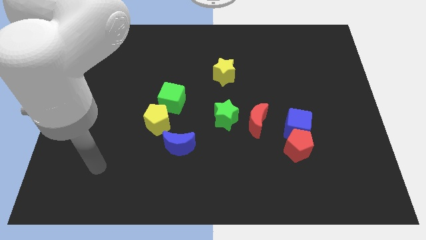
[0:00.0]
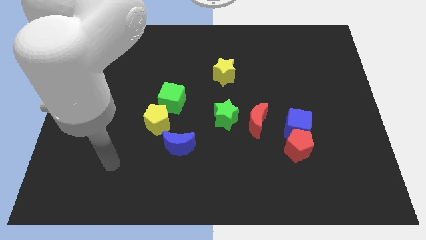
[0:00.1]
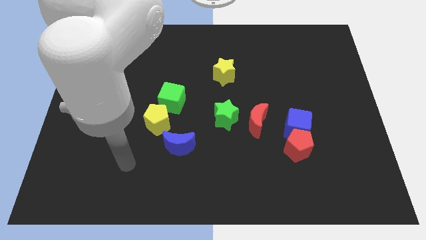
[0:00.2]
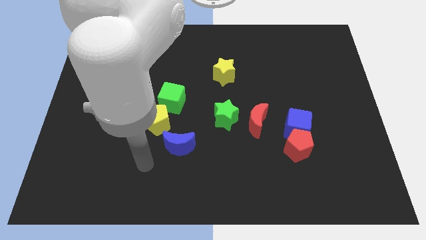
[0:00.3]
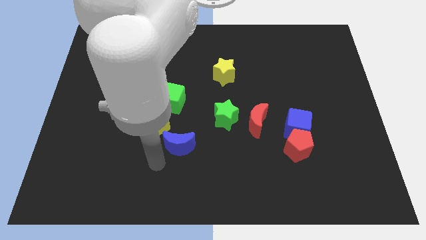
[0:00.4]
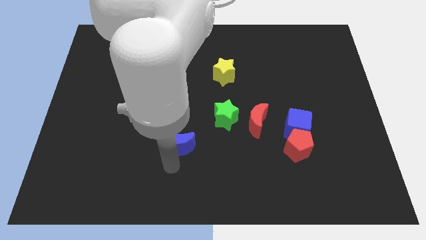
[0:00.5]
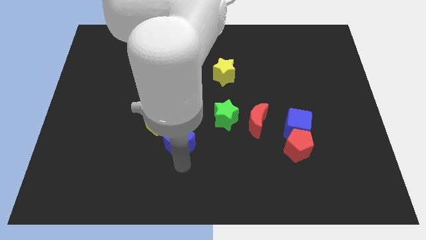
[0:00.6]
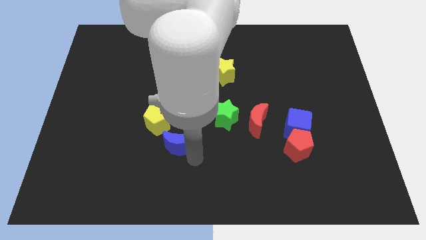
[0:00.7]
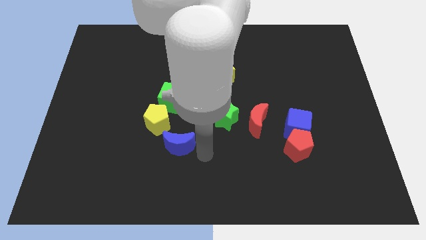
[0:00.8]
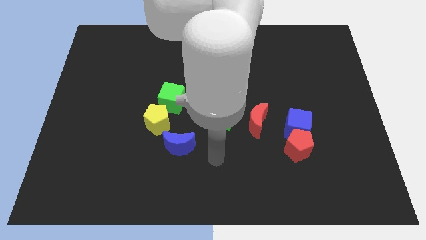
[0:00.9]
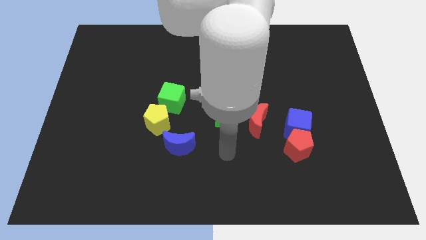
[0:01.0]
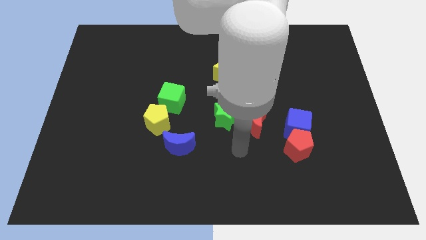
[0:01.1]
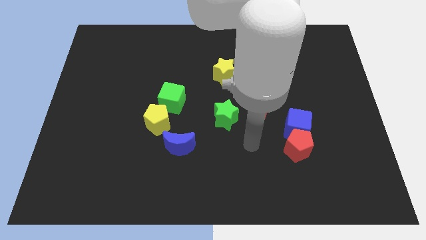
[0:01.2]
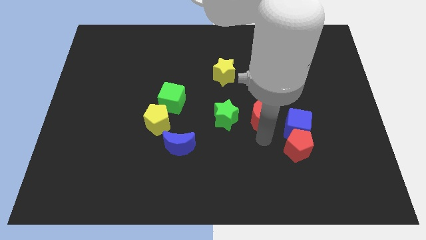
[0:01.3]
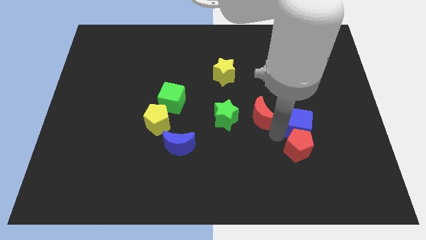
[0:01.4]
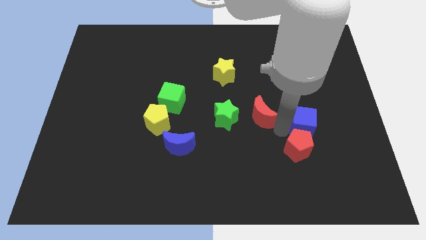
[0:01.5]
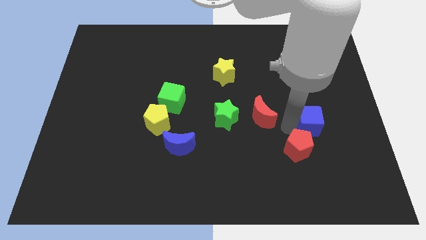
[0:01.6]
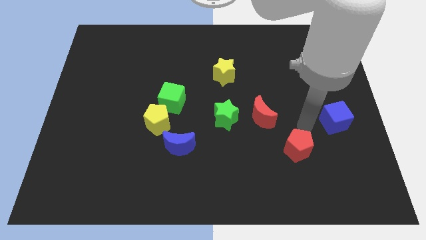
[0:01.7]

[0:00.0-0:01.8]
move the red pentagon away from the blue cube

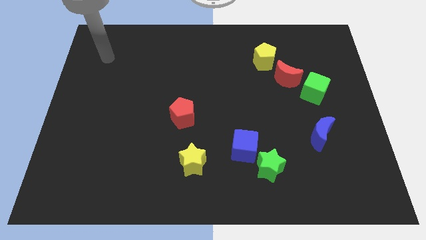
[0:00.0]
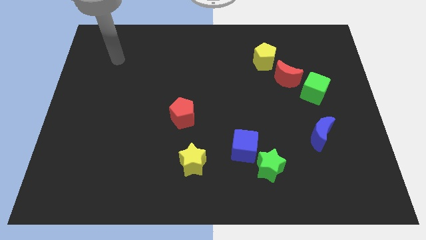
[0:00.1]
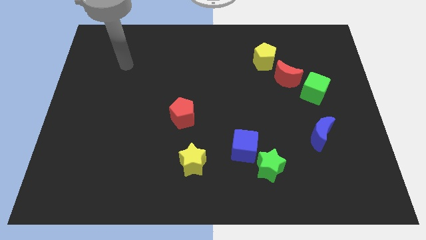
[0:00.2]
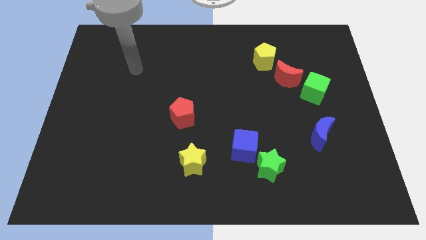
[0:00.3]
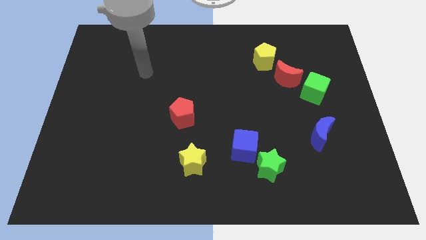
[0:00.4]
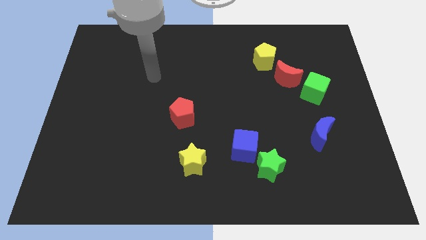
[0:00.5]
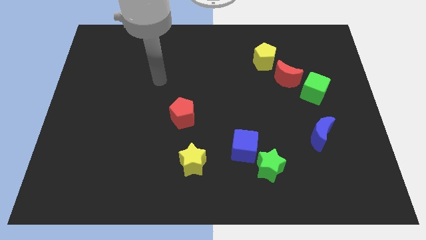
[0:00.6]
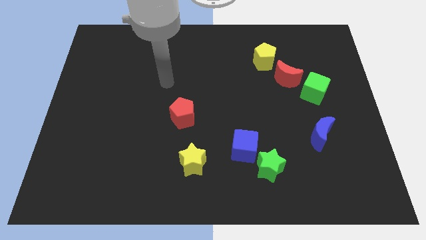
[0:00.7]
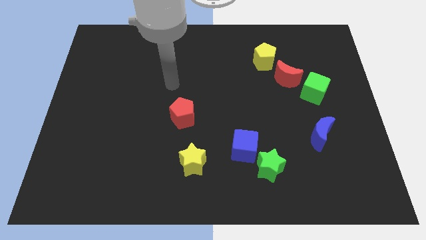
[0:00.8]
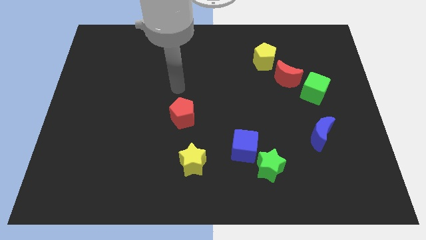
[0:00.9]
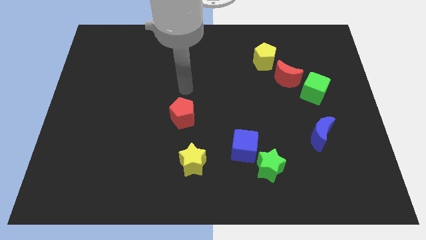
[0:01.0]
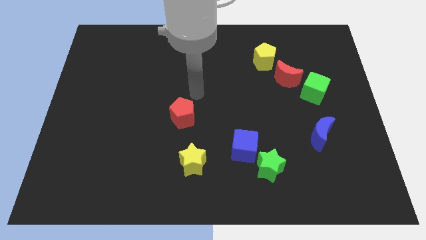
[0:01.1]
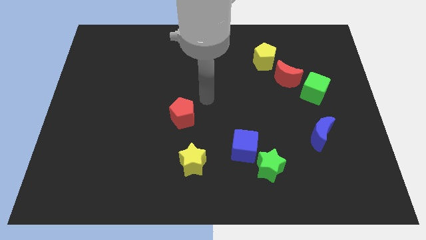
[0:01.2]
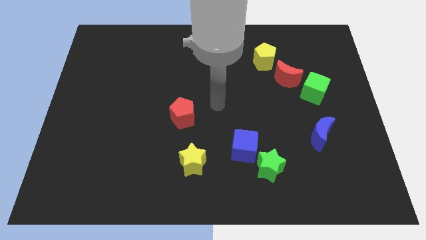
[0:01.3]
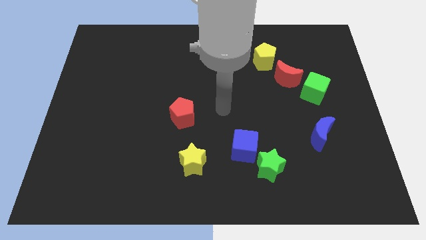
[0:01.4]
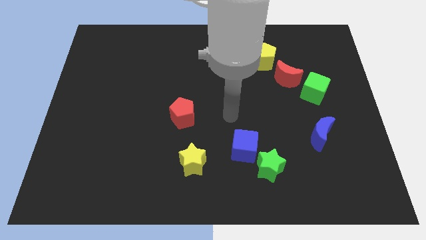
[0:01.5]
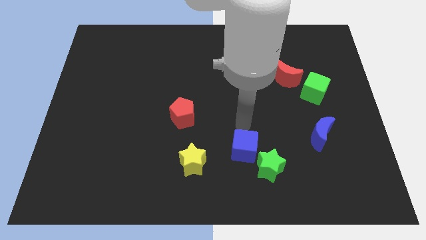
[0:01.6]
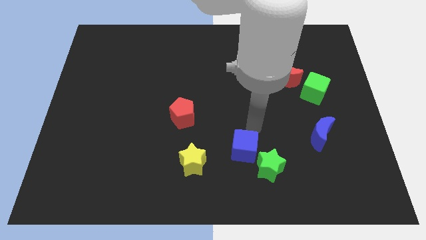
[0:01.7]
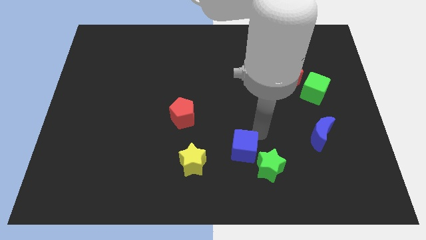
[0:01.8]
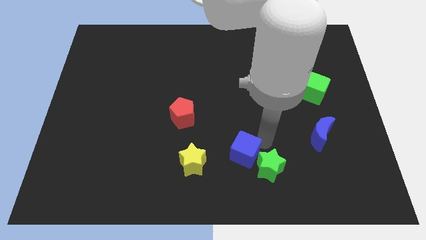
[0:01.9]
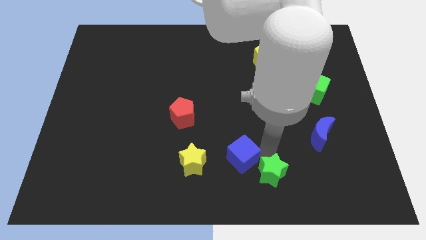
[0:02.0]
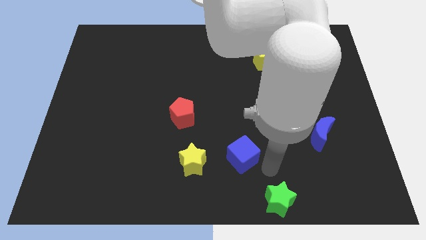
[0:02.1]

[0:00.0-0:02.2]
pull the blue cube apart from the green star

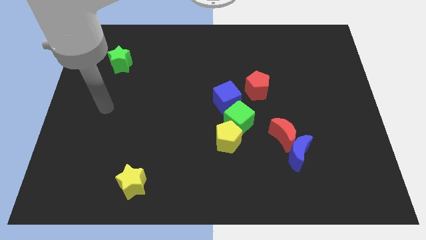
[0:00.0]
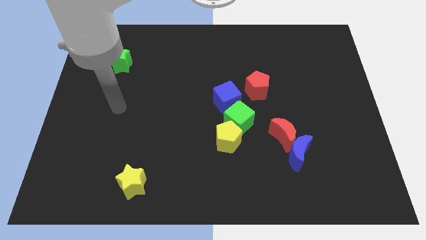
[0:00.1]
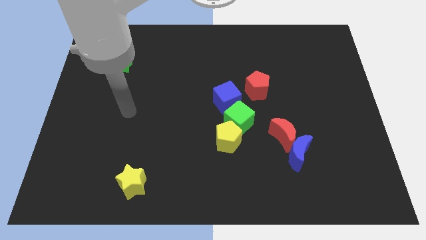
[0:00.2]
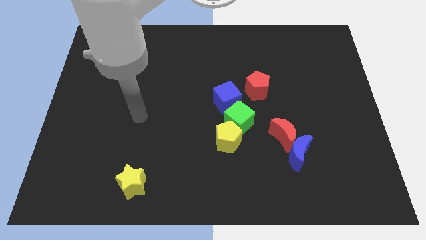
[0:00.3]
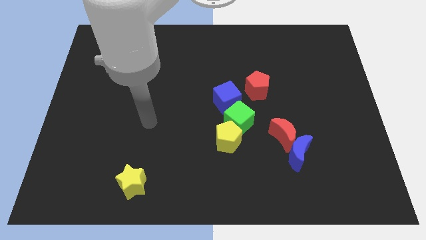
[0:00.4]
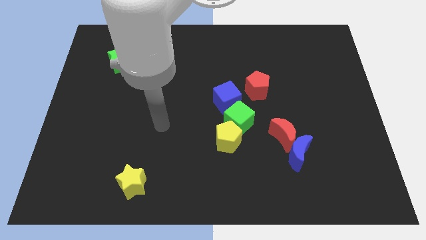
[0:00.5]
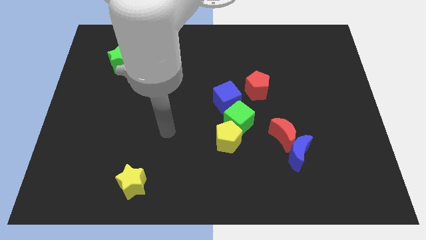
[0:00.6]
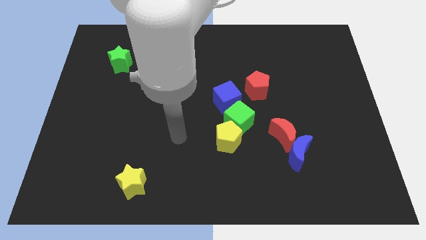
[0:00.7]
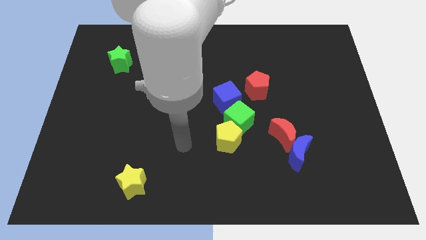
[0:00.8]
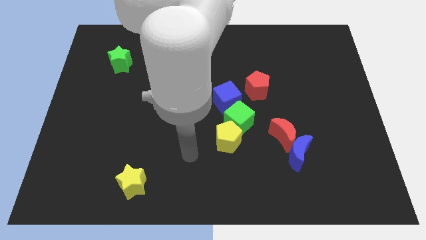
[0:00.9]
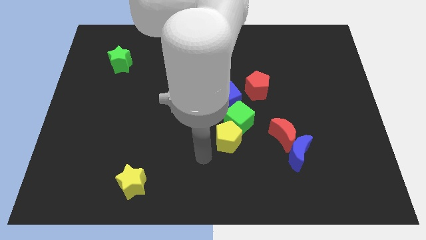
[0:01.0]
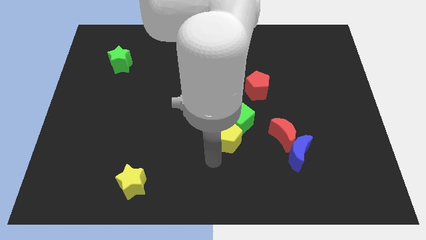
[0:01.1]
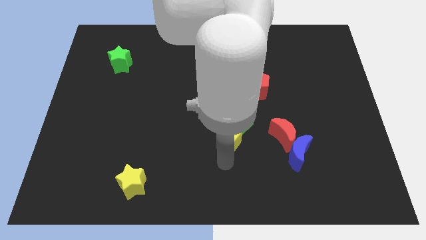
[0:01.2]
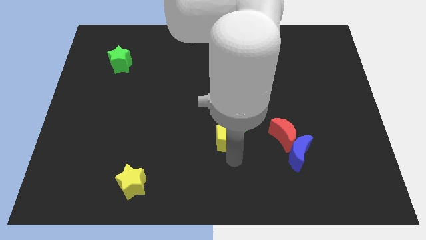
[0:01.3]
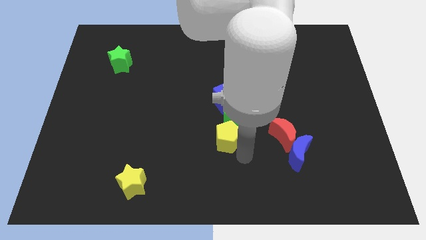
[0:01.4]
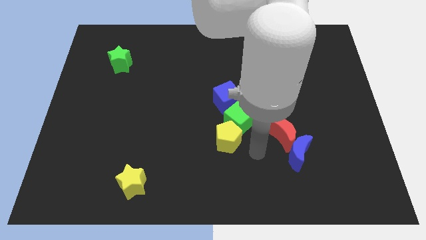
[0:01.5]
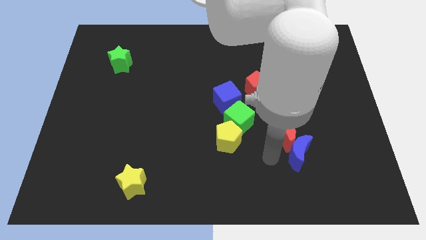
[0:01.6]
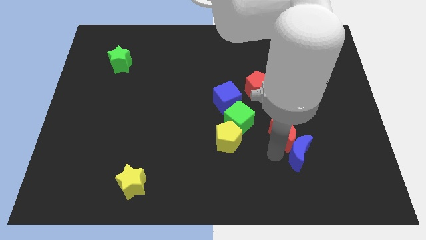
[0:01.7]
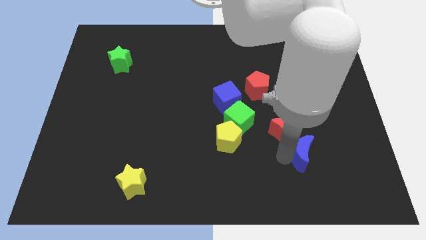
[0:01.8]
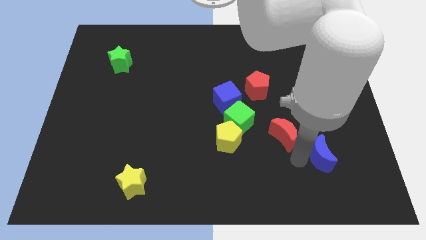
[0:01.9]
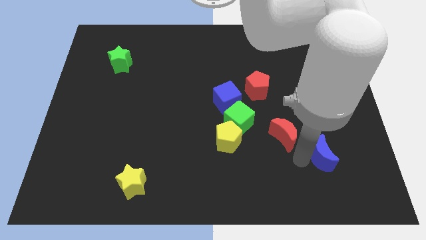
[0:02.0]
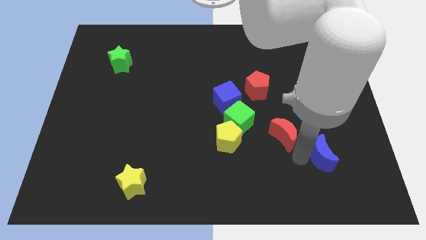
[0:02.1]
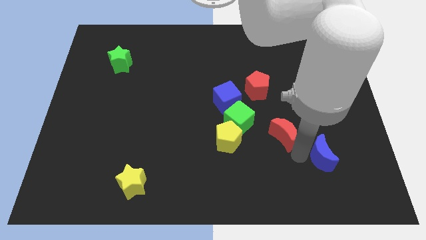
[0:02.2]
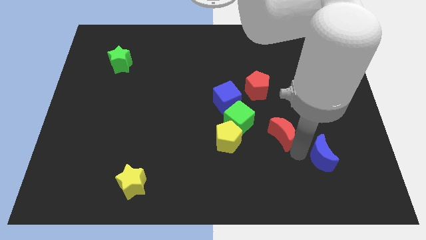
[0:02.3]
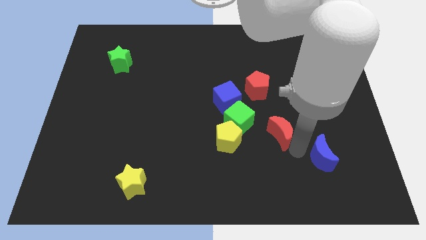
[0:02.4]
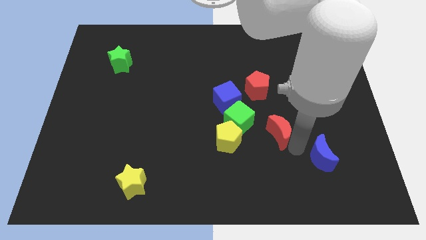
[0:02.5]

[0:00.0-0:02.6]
move the red moon away from the blue moon

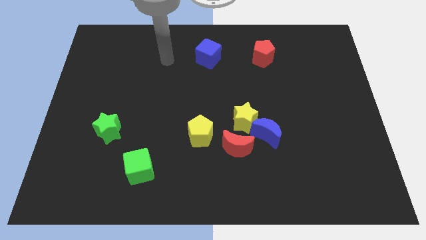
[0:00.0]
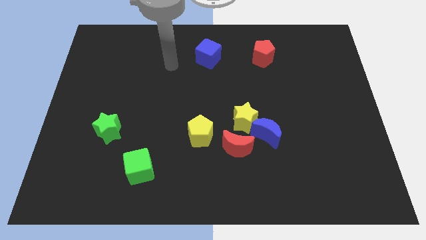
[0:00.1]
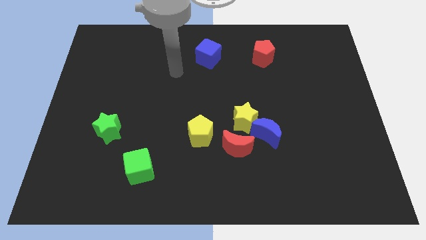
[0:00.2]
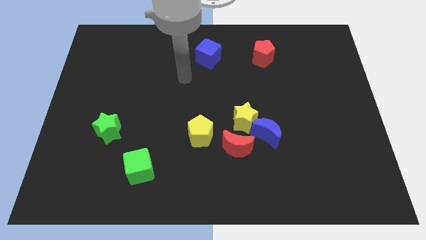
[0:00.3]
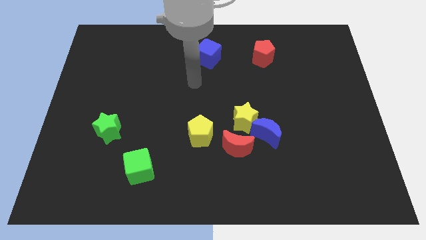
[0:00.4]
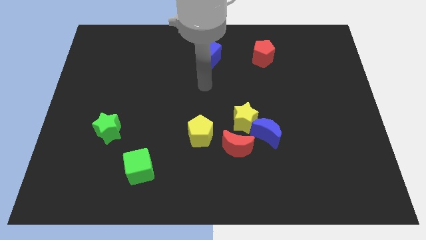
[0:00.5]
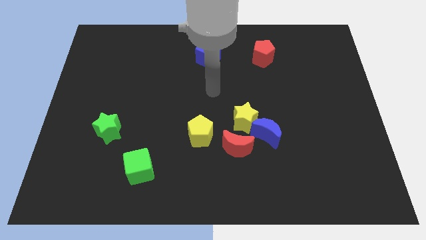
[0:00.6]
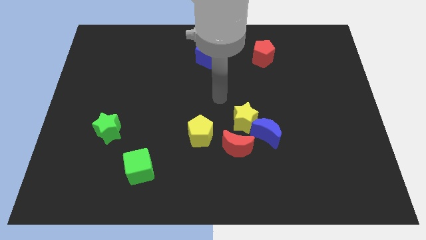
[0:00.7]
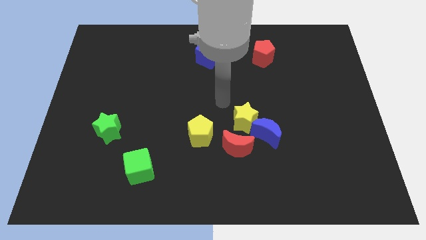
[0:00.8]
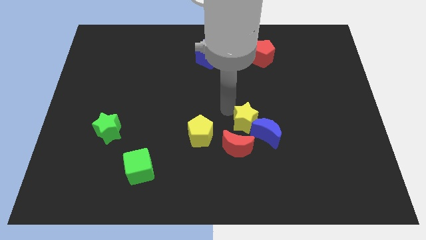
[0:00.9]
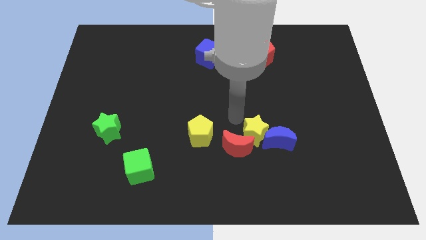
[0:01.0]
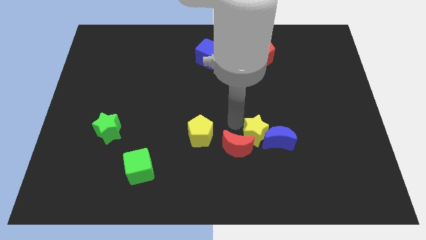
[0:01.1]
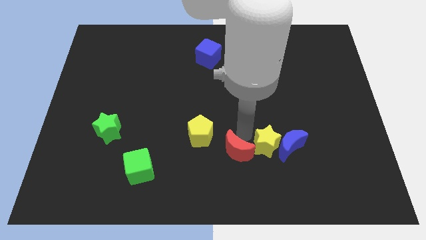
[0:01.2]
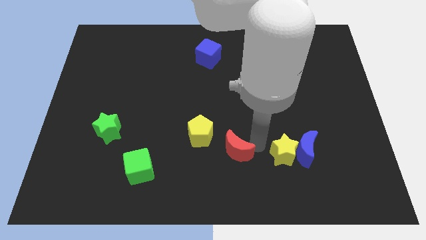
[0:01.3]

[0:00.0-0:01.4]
separate the blue moon from the yellow star and red moon

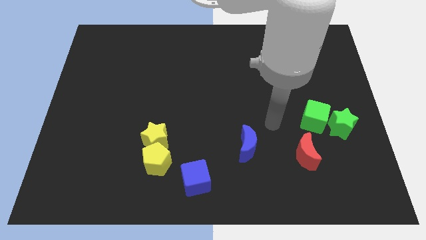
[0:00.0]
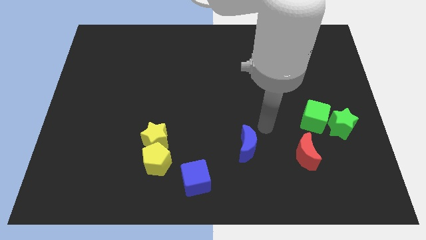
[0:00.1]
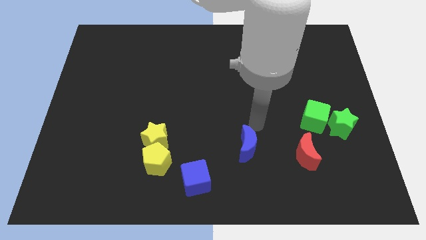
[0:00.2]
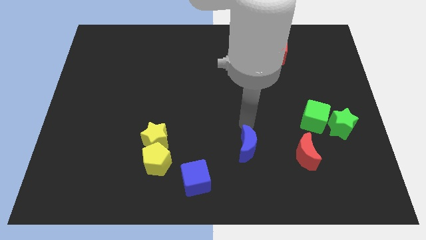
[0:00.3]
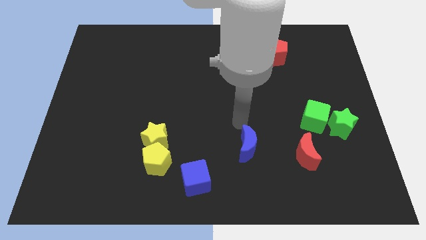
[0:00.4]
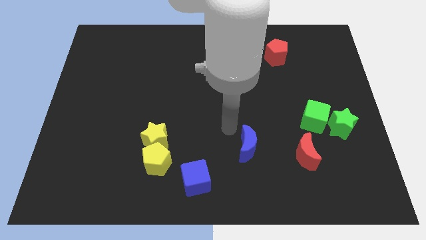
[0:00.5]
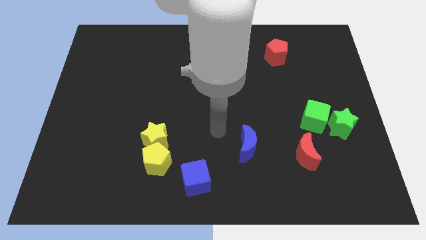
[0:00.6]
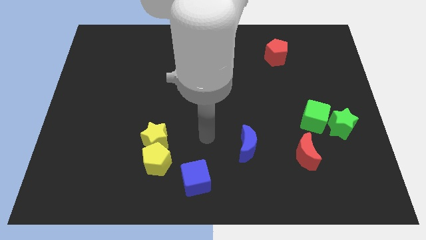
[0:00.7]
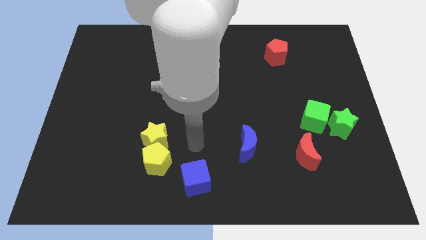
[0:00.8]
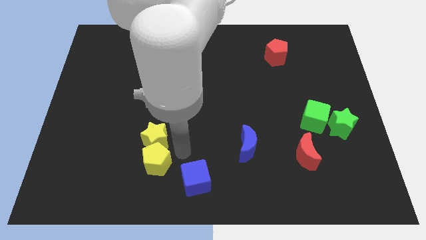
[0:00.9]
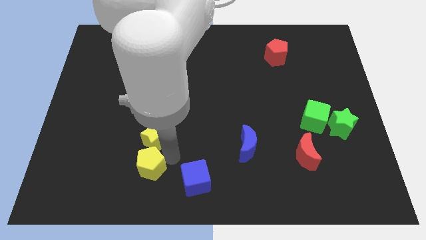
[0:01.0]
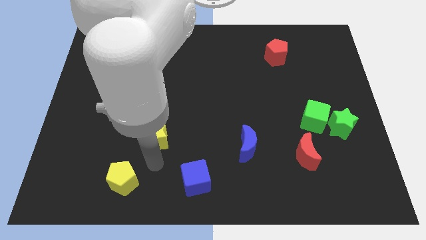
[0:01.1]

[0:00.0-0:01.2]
pull the yellow star apart from the yellow pentagon

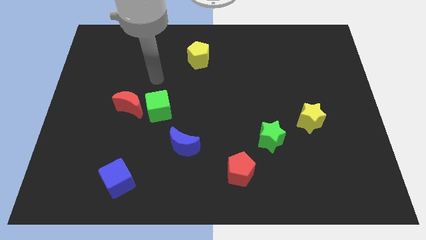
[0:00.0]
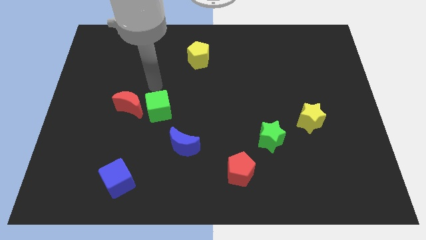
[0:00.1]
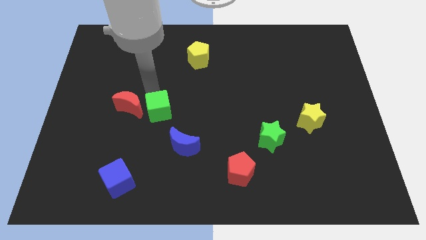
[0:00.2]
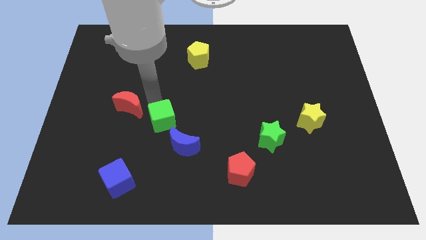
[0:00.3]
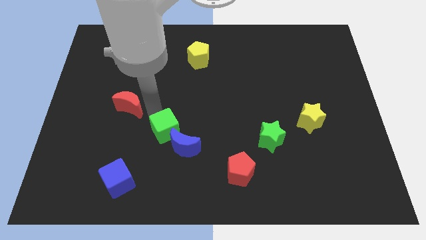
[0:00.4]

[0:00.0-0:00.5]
move the red moon away from the green cube
